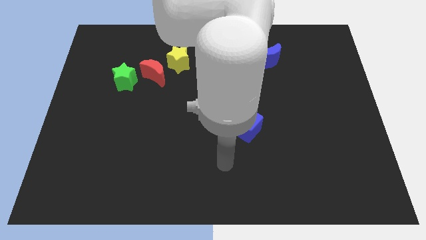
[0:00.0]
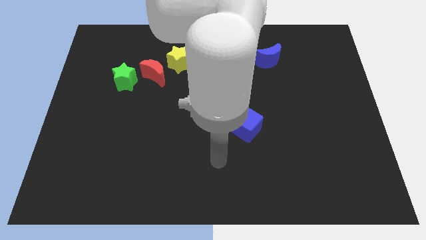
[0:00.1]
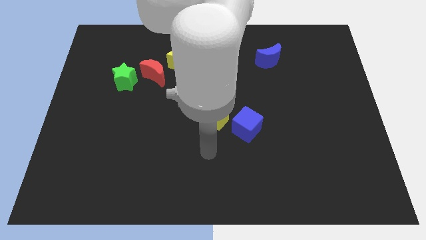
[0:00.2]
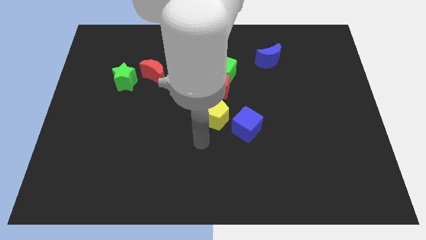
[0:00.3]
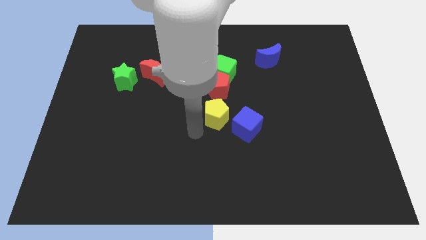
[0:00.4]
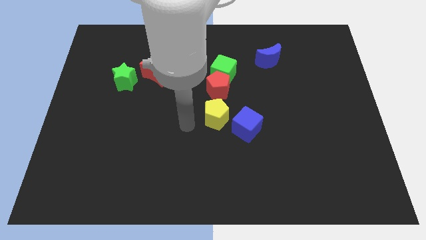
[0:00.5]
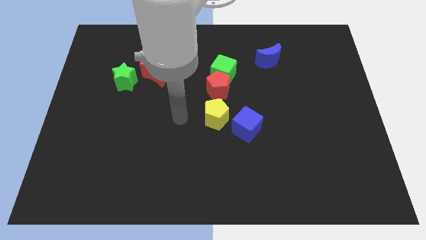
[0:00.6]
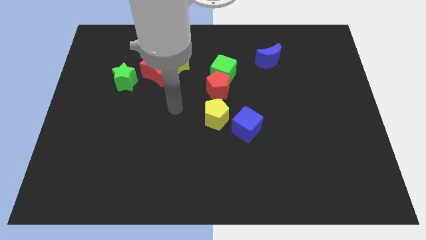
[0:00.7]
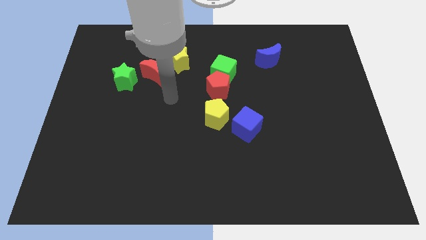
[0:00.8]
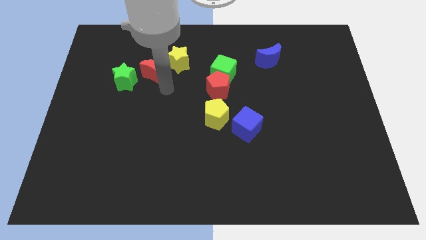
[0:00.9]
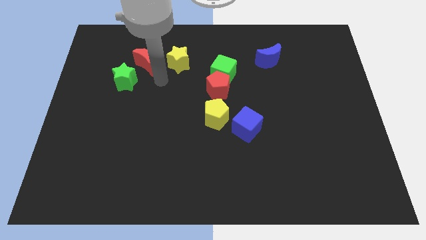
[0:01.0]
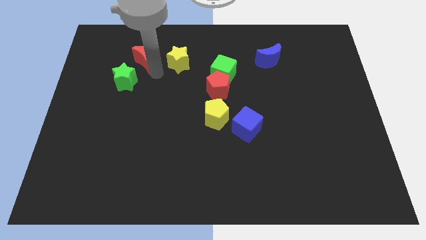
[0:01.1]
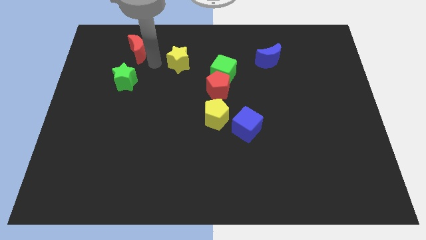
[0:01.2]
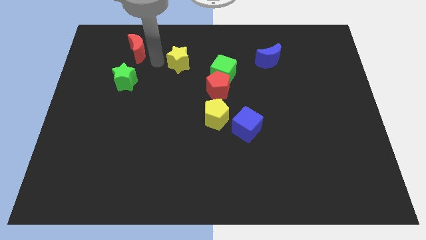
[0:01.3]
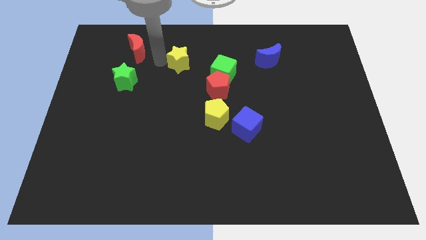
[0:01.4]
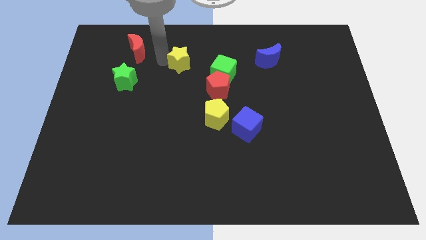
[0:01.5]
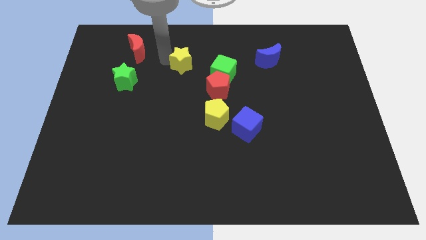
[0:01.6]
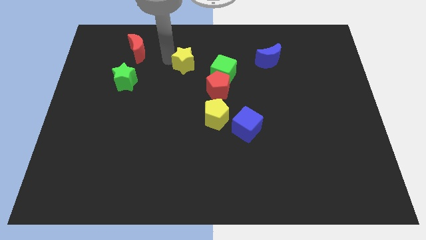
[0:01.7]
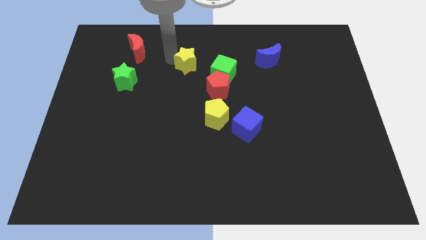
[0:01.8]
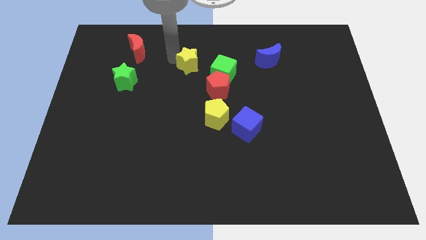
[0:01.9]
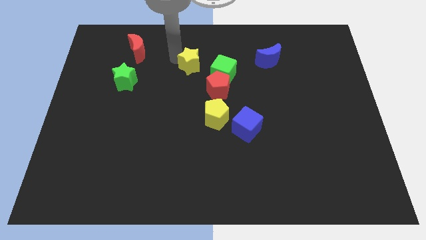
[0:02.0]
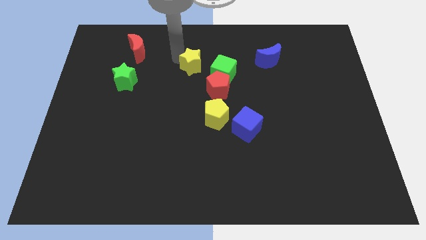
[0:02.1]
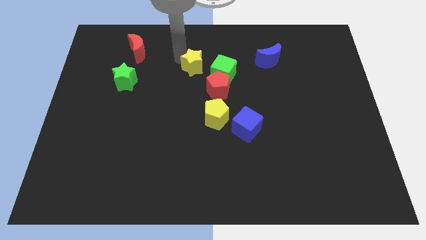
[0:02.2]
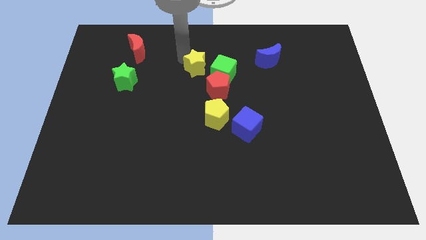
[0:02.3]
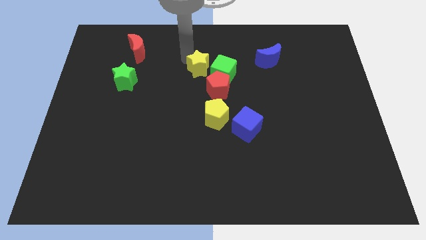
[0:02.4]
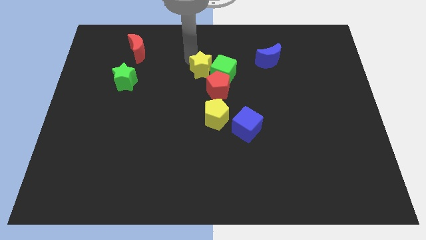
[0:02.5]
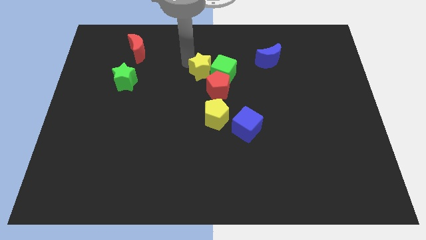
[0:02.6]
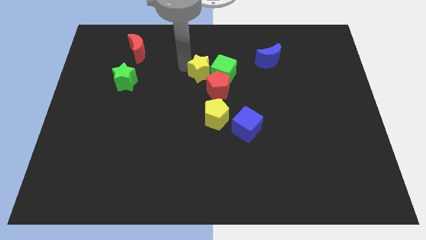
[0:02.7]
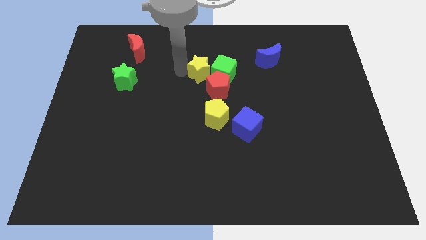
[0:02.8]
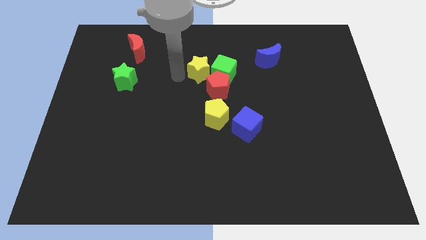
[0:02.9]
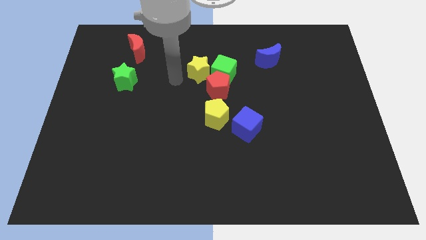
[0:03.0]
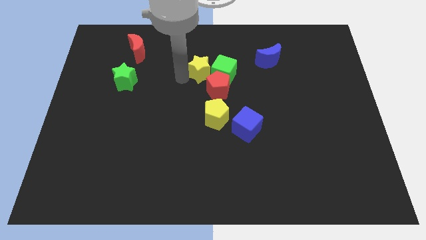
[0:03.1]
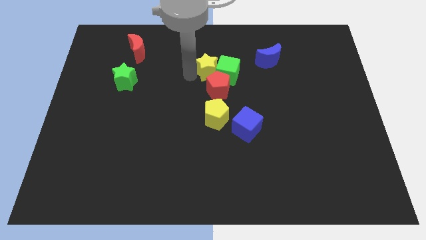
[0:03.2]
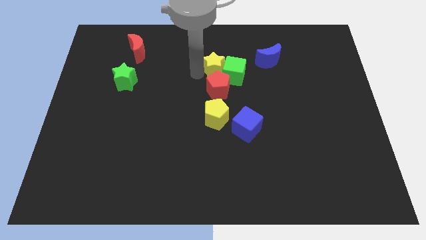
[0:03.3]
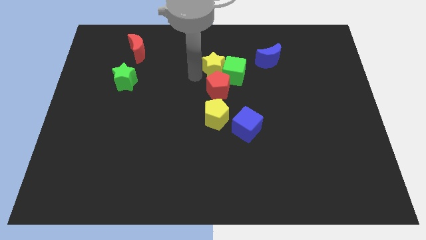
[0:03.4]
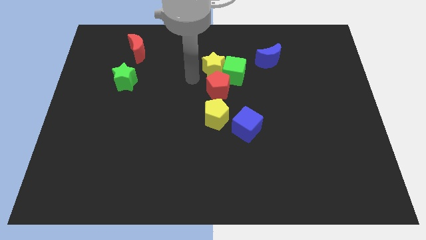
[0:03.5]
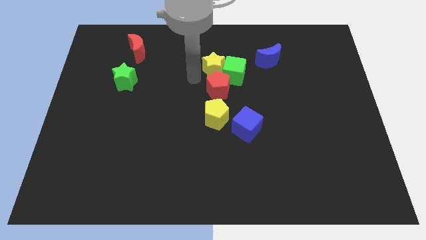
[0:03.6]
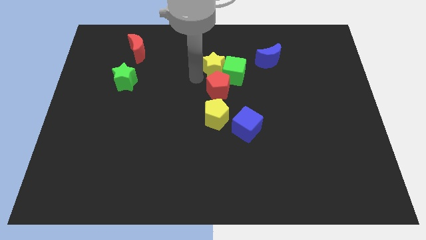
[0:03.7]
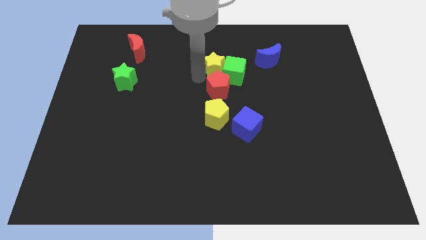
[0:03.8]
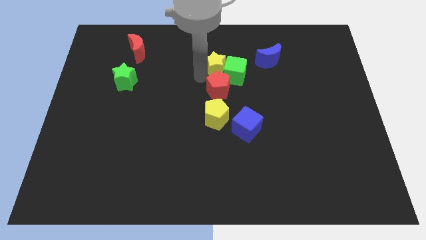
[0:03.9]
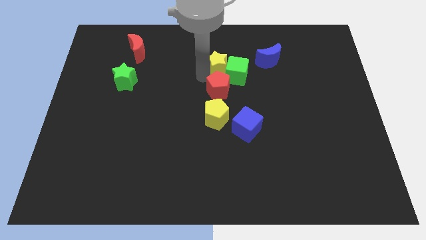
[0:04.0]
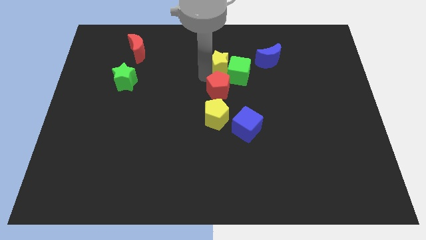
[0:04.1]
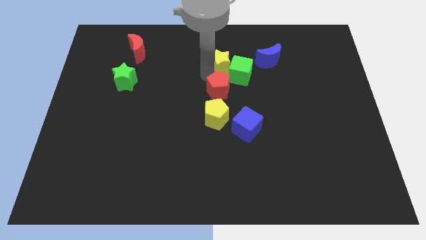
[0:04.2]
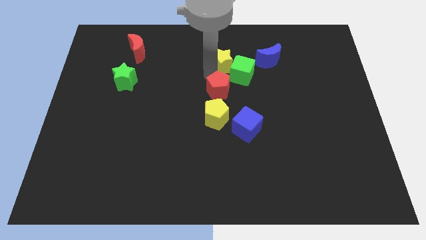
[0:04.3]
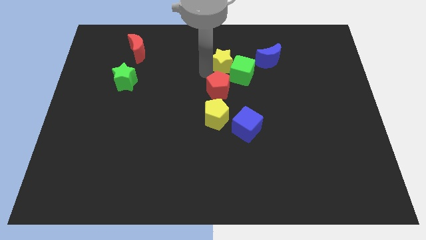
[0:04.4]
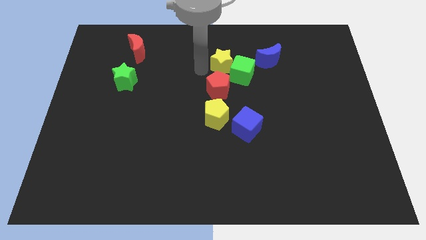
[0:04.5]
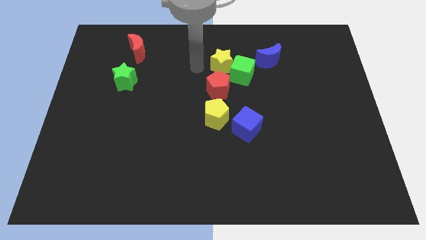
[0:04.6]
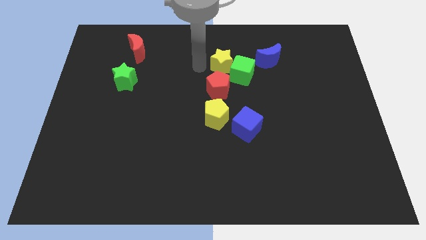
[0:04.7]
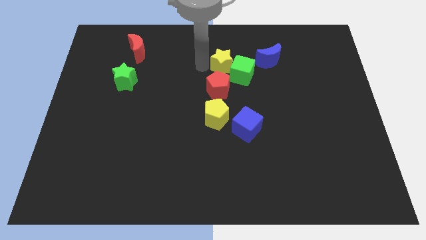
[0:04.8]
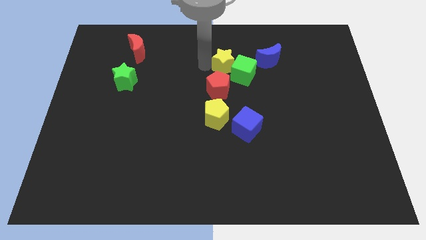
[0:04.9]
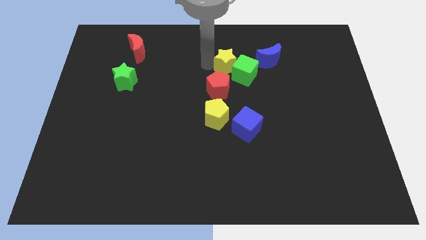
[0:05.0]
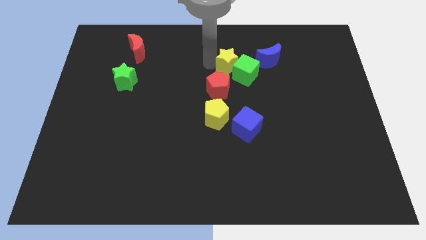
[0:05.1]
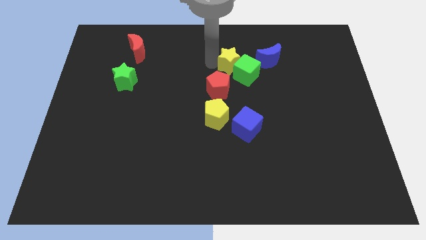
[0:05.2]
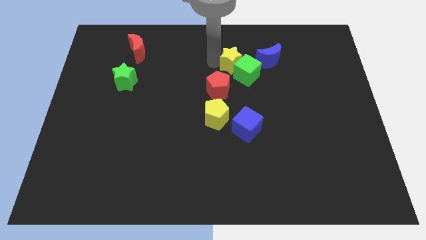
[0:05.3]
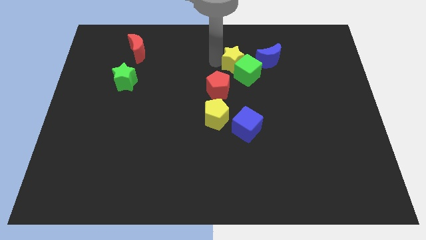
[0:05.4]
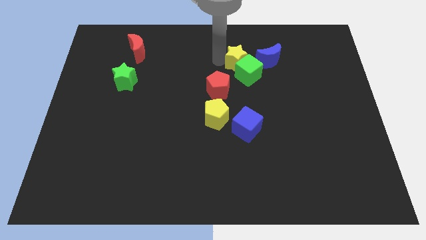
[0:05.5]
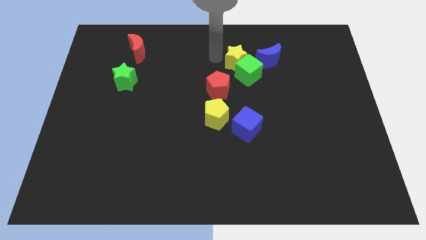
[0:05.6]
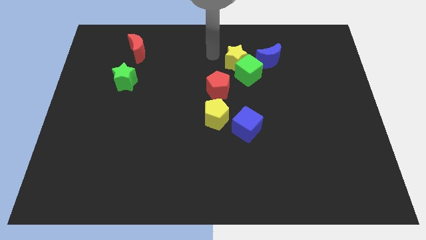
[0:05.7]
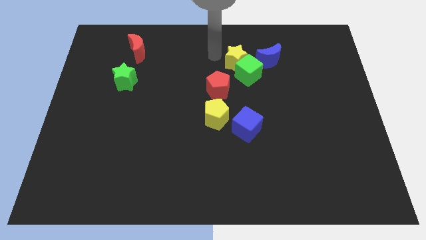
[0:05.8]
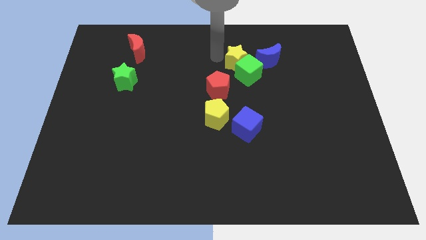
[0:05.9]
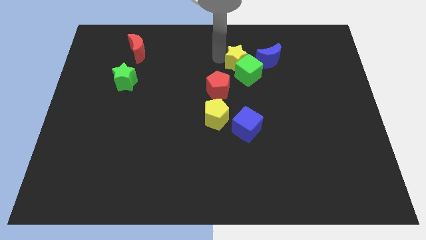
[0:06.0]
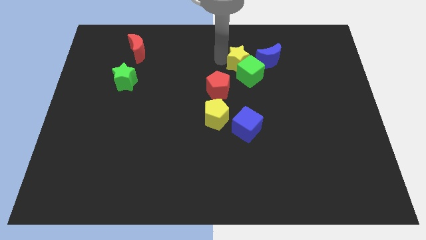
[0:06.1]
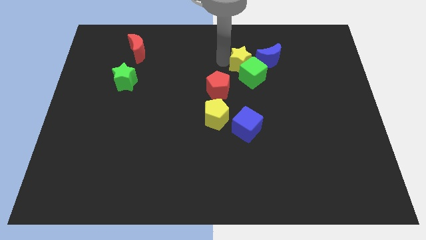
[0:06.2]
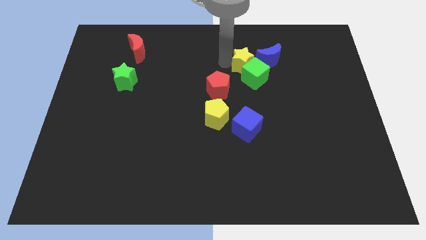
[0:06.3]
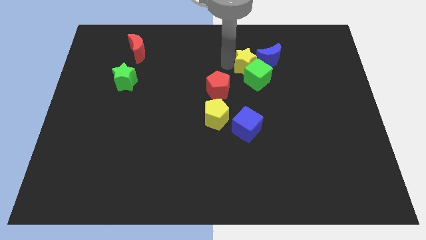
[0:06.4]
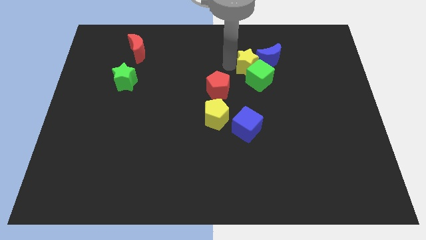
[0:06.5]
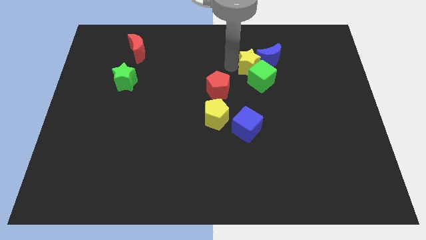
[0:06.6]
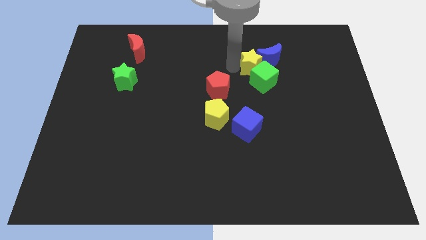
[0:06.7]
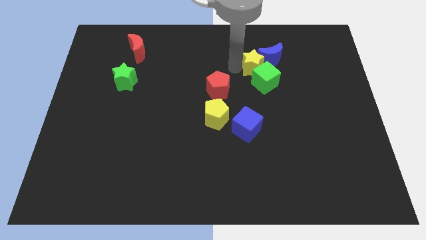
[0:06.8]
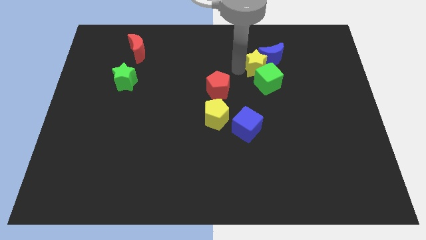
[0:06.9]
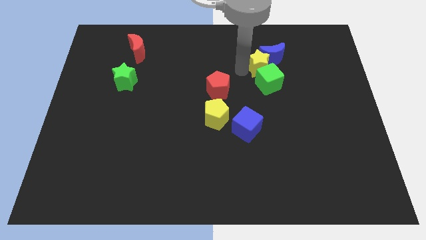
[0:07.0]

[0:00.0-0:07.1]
move the yellow star right
